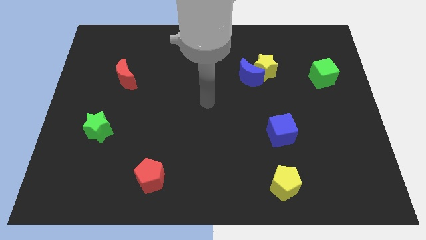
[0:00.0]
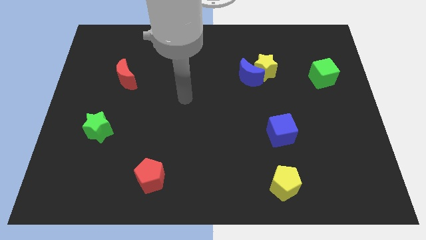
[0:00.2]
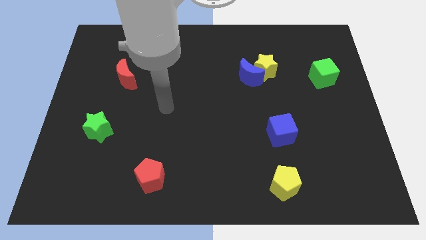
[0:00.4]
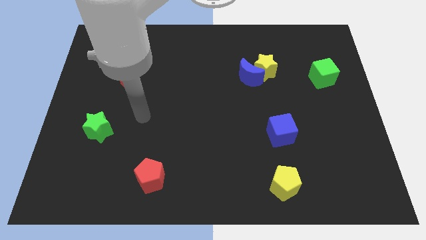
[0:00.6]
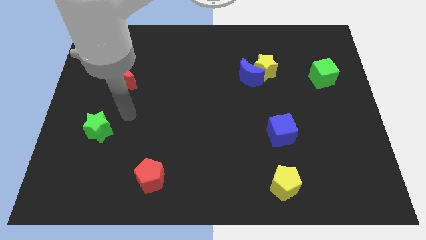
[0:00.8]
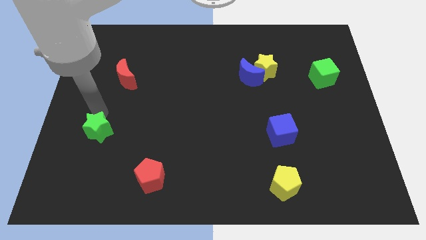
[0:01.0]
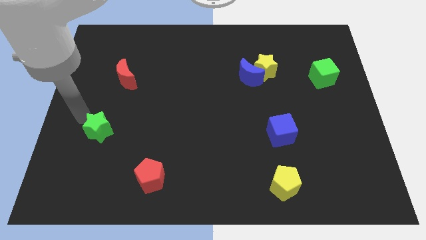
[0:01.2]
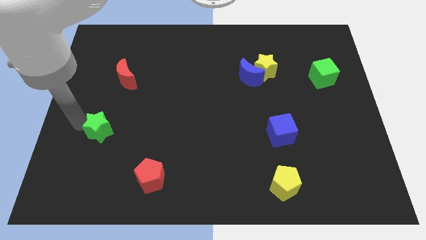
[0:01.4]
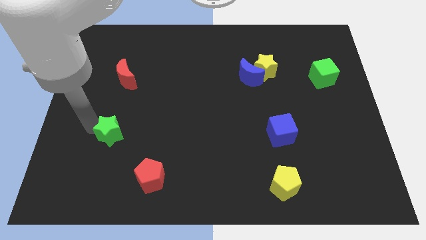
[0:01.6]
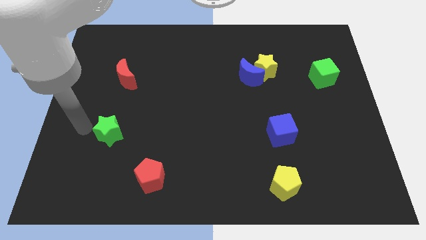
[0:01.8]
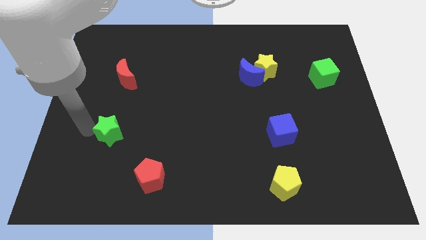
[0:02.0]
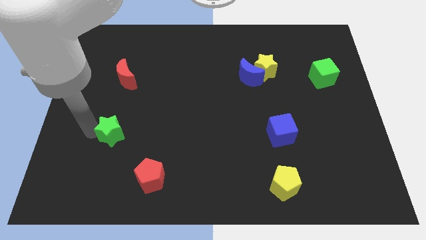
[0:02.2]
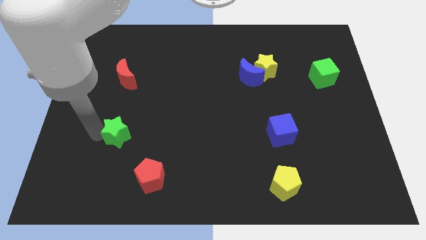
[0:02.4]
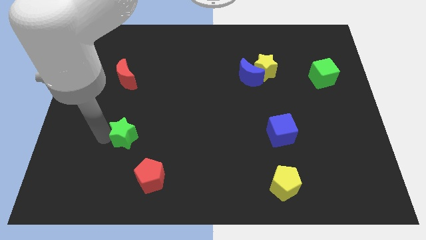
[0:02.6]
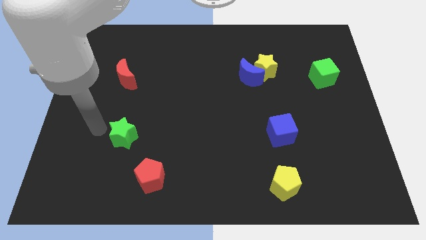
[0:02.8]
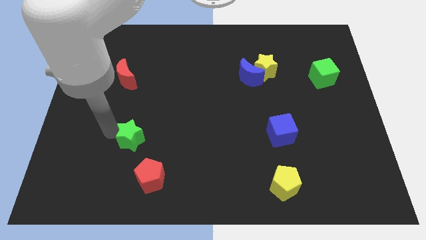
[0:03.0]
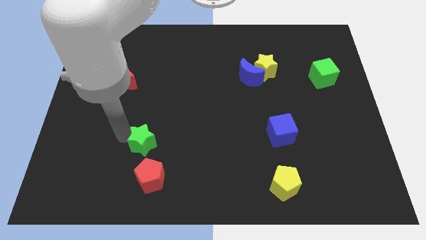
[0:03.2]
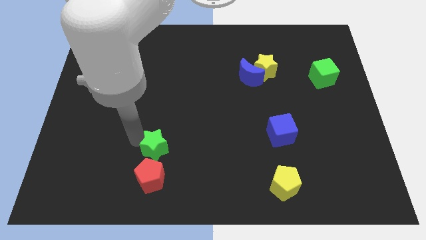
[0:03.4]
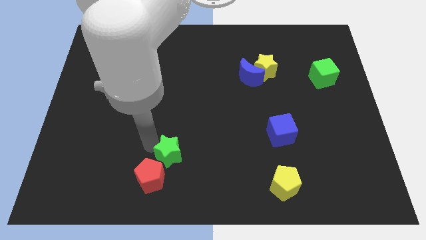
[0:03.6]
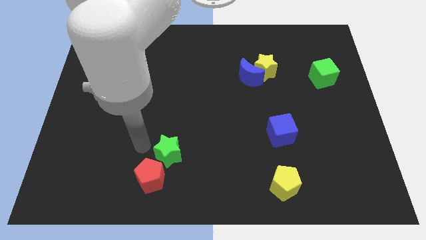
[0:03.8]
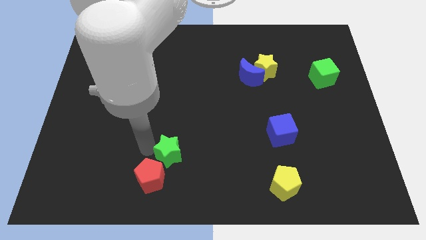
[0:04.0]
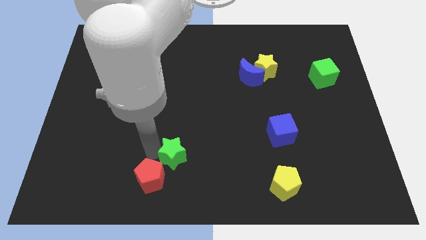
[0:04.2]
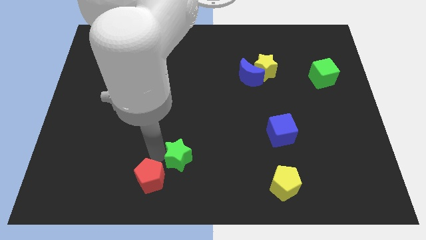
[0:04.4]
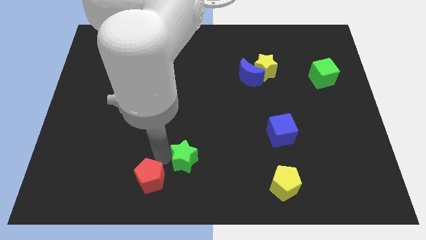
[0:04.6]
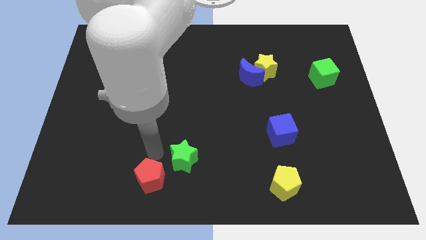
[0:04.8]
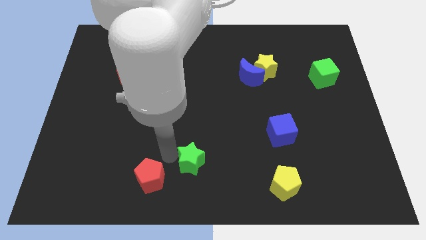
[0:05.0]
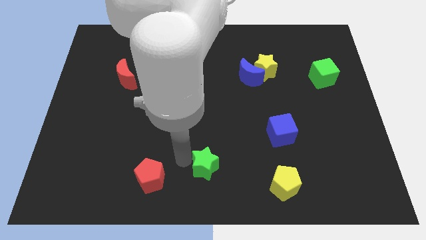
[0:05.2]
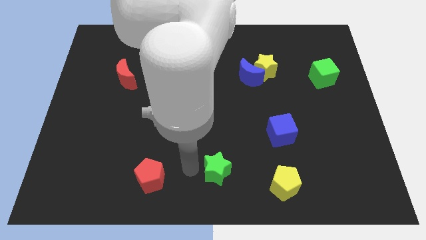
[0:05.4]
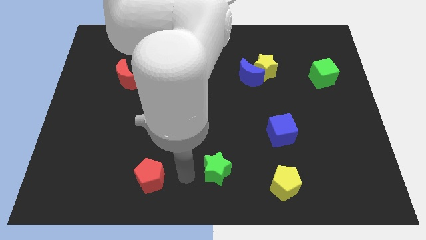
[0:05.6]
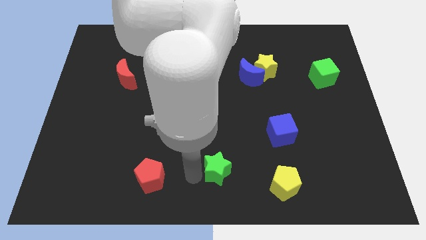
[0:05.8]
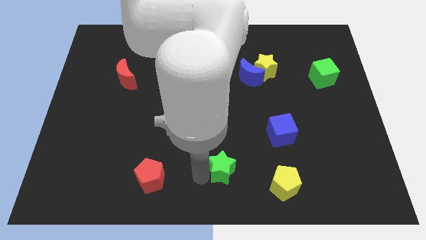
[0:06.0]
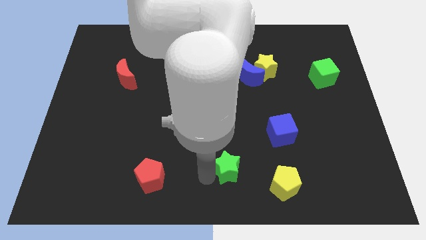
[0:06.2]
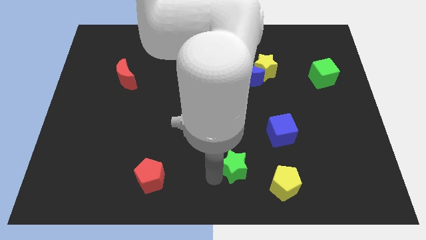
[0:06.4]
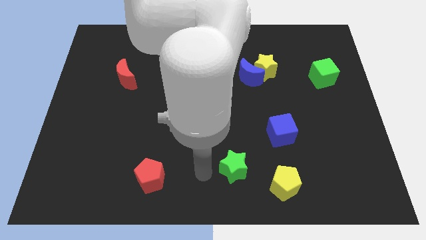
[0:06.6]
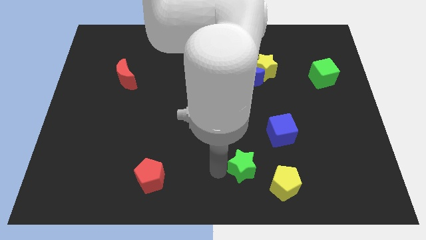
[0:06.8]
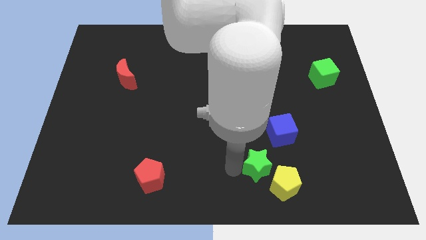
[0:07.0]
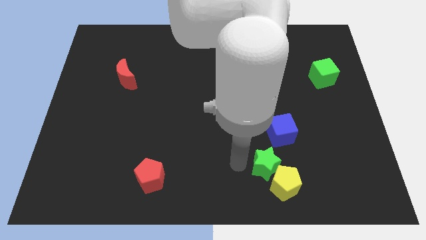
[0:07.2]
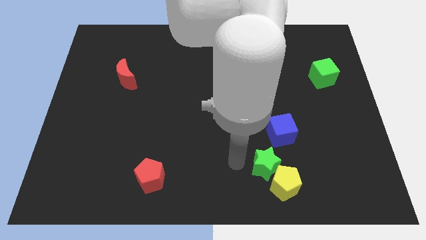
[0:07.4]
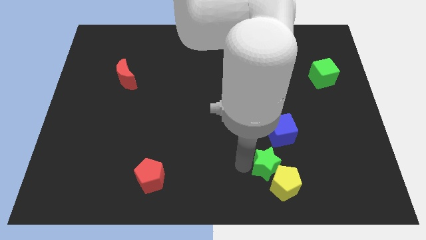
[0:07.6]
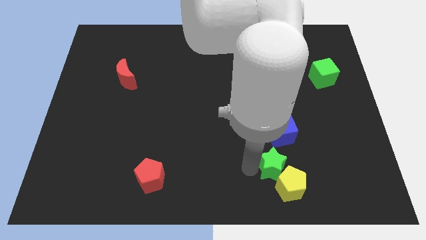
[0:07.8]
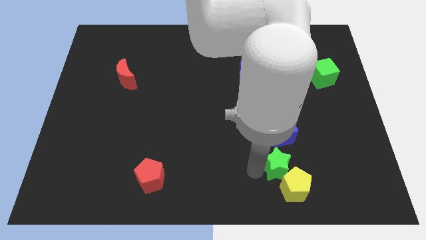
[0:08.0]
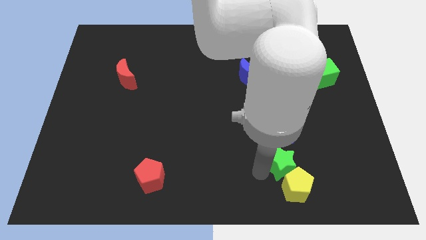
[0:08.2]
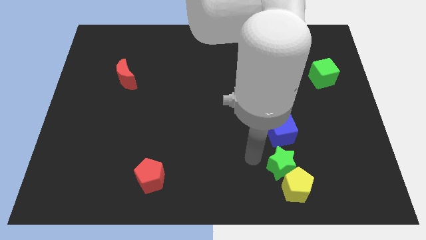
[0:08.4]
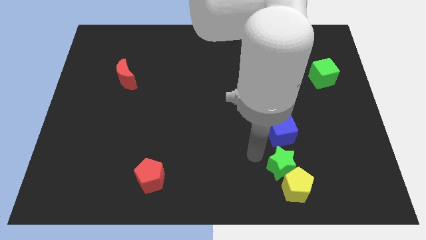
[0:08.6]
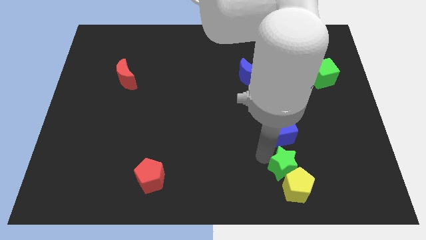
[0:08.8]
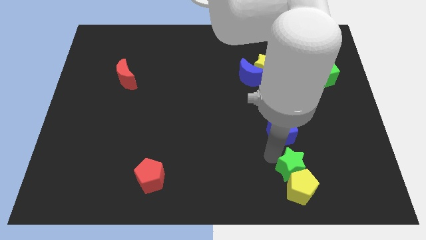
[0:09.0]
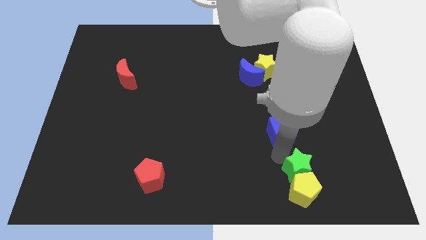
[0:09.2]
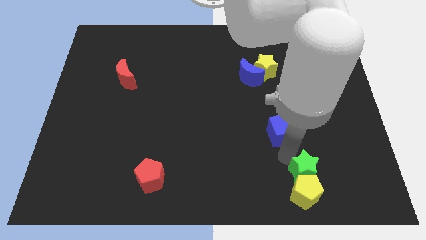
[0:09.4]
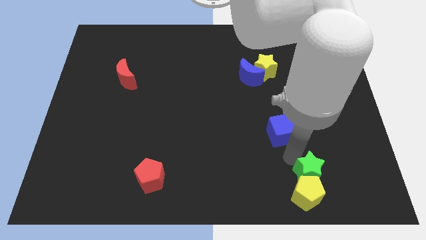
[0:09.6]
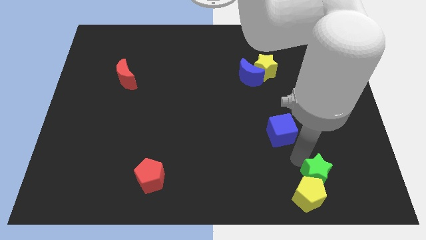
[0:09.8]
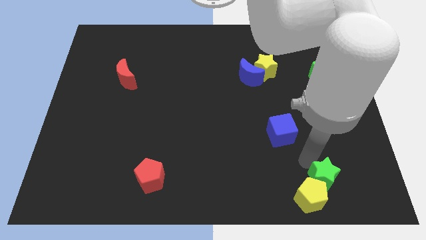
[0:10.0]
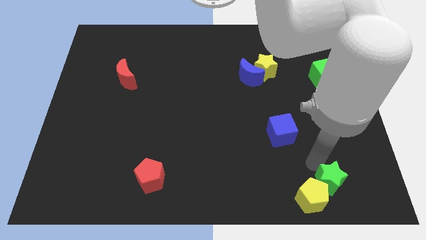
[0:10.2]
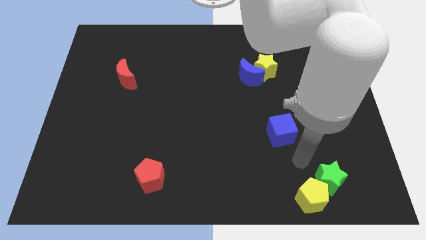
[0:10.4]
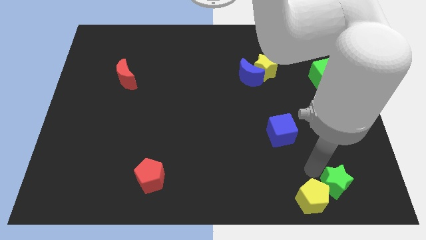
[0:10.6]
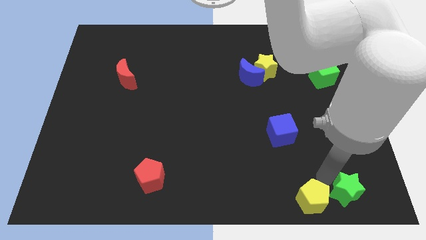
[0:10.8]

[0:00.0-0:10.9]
slide the green star to the bottom right corner
